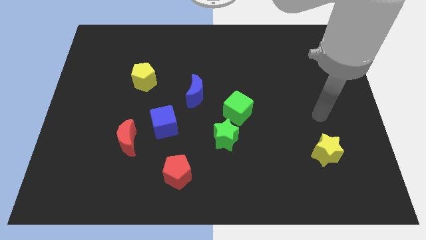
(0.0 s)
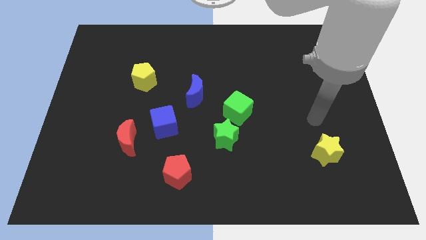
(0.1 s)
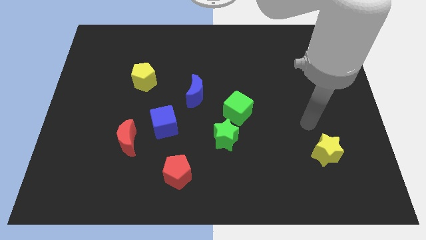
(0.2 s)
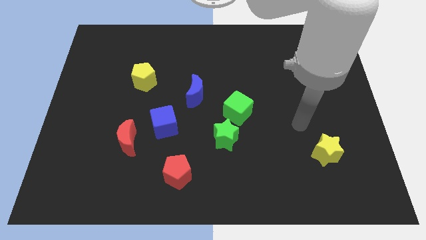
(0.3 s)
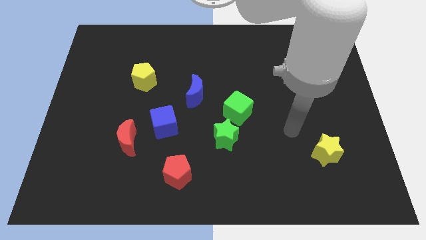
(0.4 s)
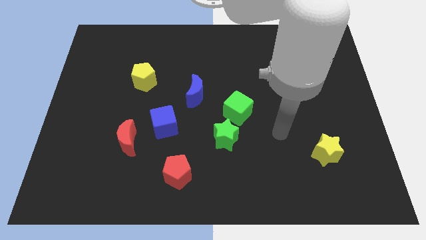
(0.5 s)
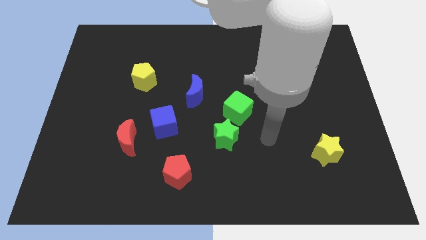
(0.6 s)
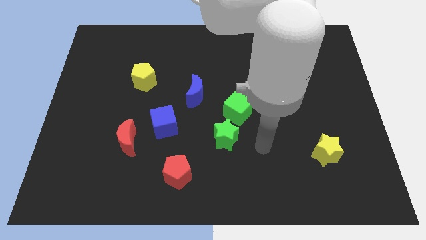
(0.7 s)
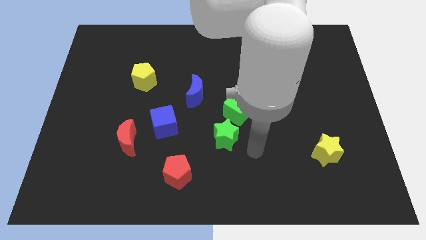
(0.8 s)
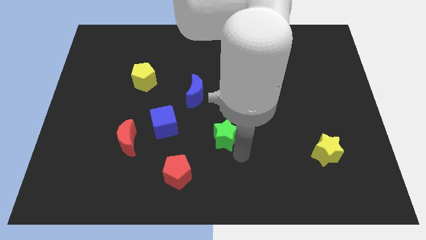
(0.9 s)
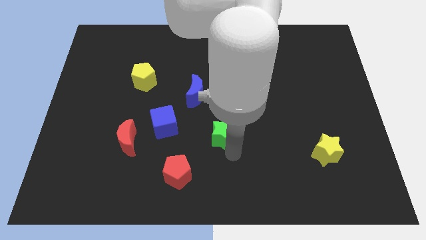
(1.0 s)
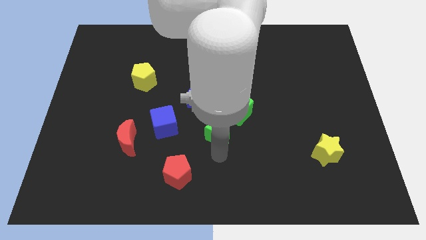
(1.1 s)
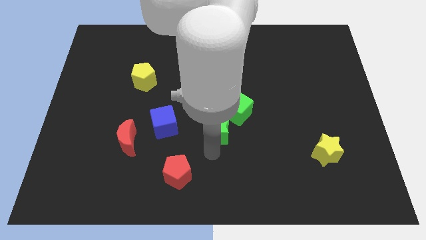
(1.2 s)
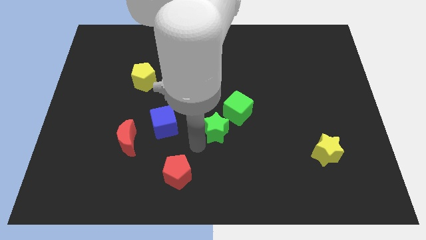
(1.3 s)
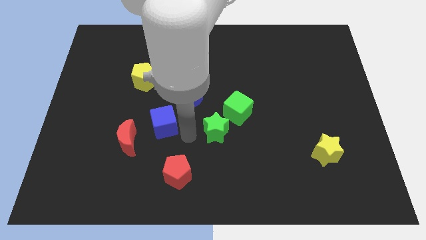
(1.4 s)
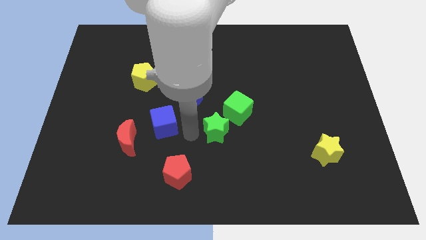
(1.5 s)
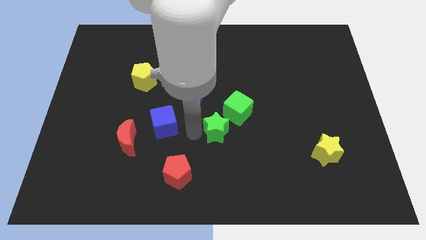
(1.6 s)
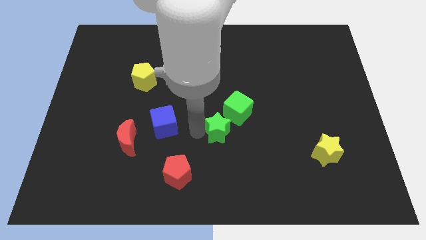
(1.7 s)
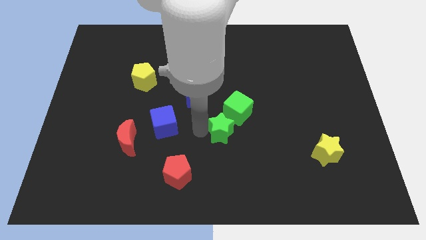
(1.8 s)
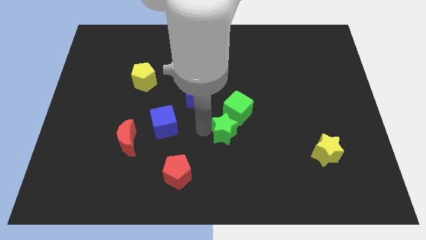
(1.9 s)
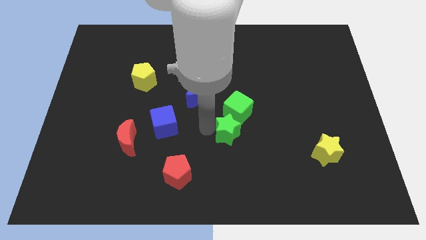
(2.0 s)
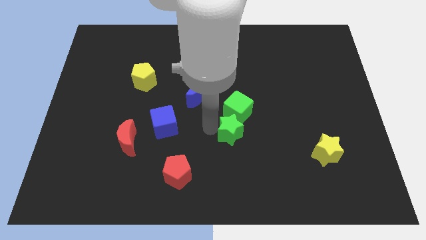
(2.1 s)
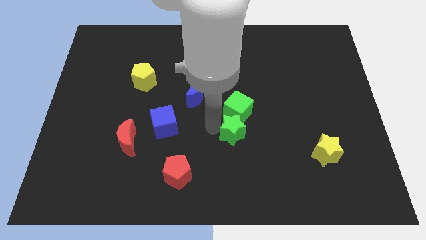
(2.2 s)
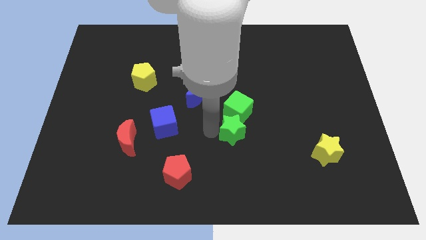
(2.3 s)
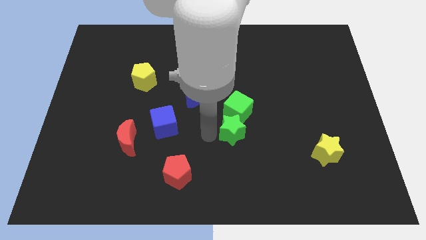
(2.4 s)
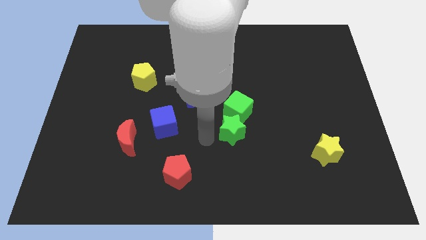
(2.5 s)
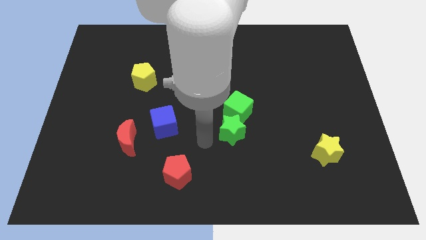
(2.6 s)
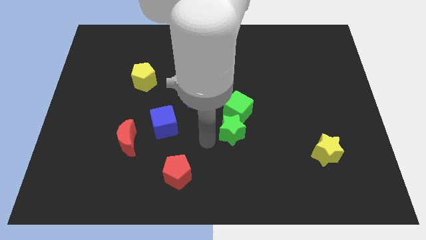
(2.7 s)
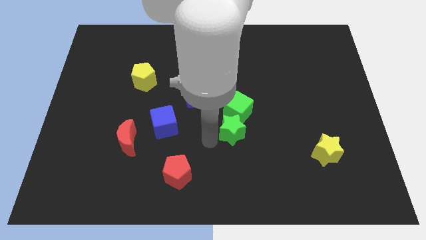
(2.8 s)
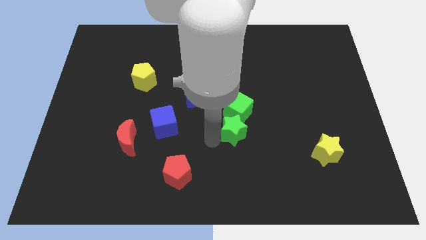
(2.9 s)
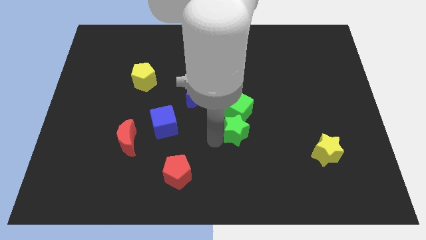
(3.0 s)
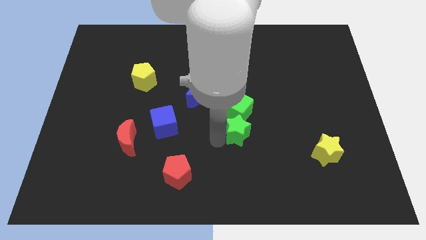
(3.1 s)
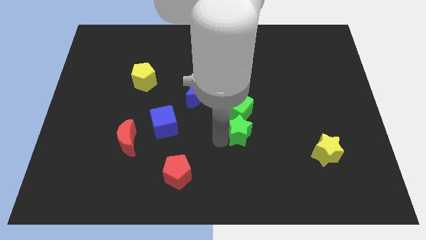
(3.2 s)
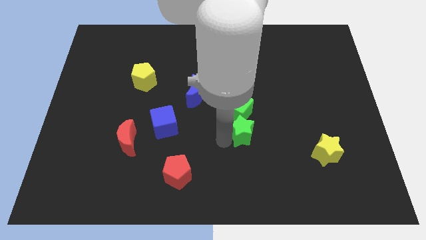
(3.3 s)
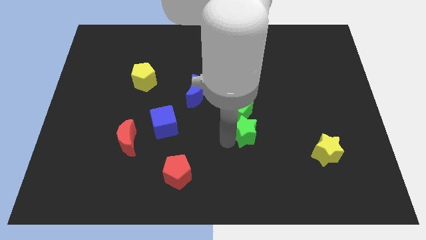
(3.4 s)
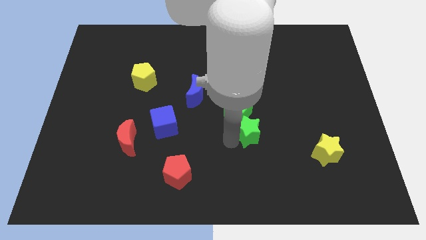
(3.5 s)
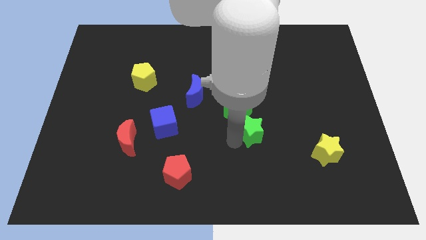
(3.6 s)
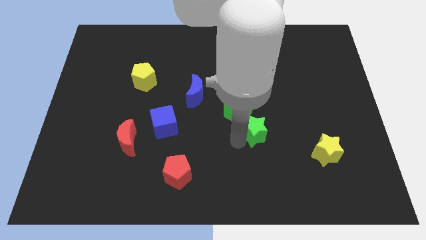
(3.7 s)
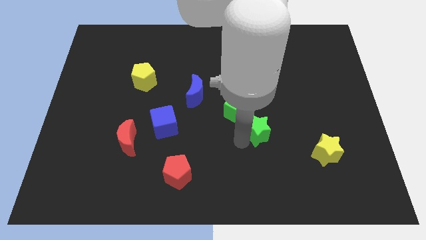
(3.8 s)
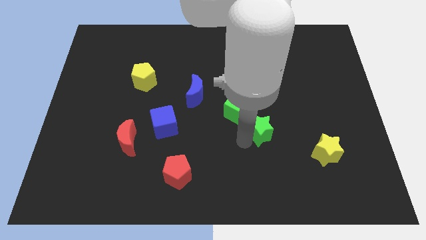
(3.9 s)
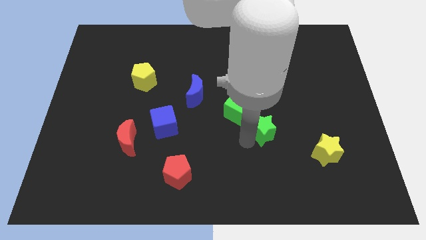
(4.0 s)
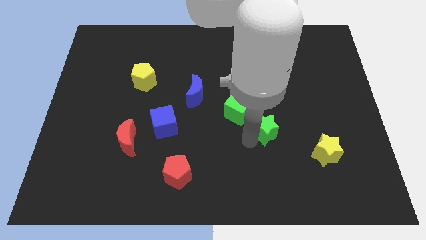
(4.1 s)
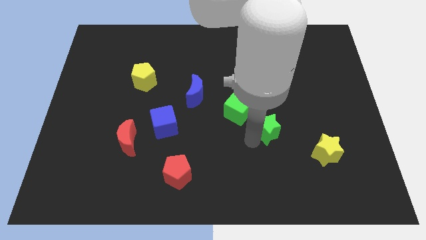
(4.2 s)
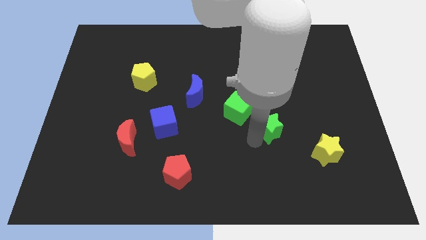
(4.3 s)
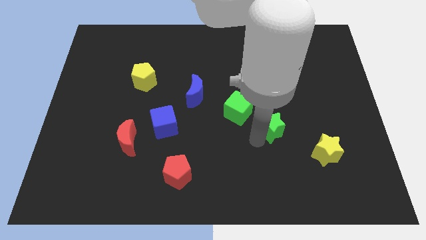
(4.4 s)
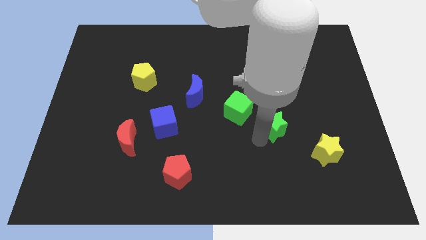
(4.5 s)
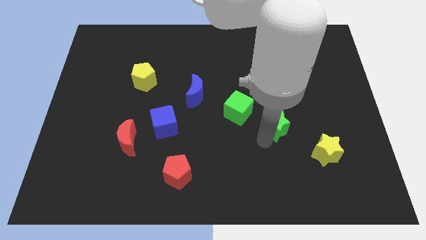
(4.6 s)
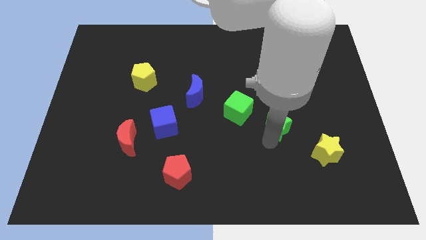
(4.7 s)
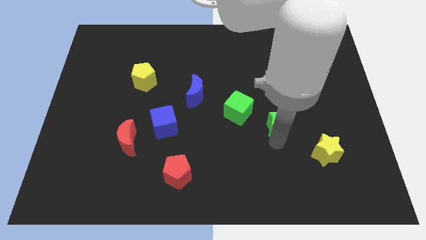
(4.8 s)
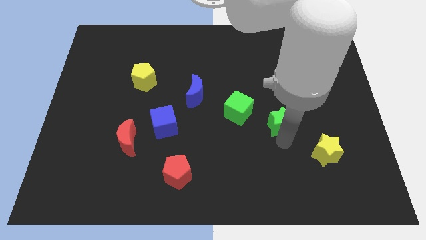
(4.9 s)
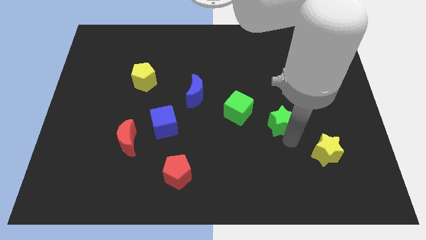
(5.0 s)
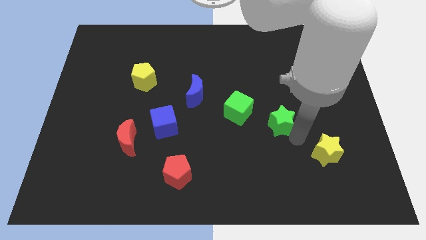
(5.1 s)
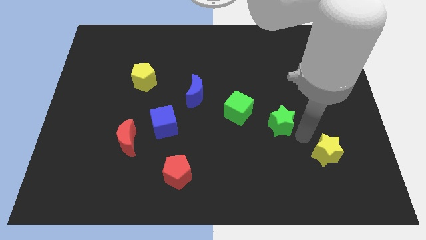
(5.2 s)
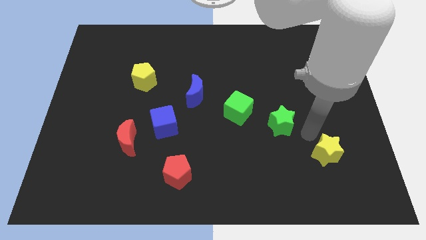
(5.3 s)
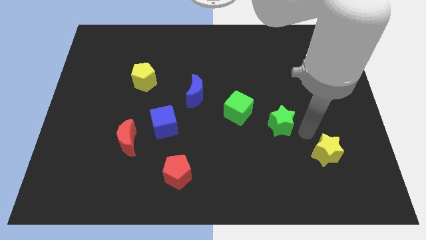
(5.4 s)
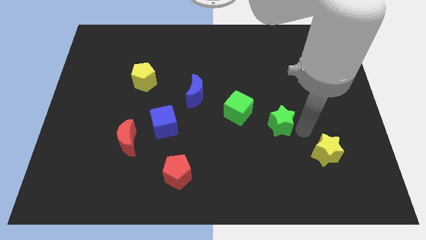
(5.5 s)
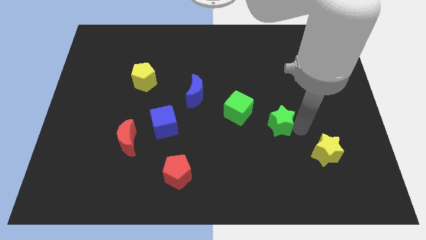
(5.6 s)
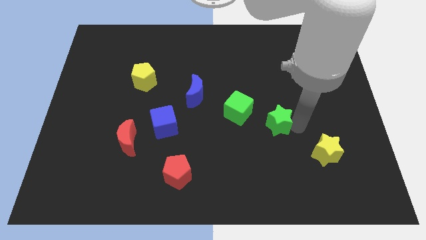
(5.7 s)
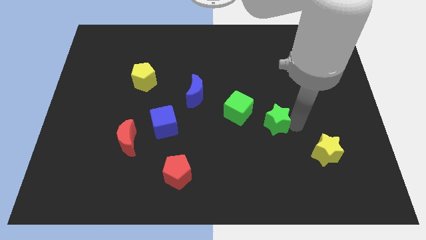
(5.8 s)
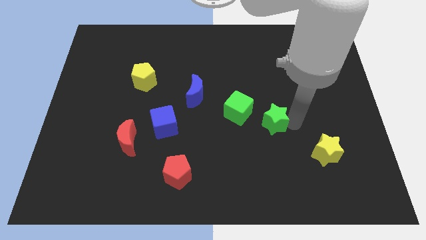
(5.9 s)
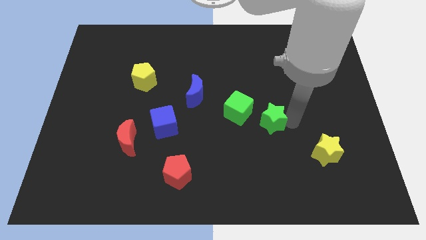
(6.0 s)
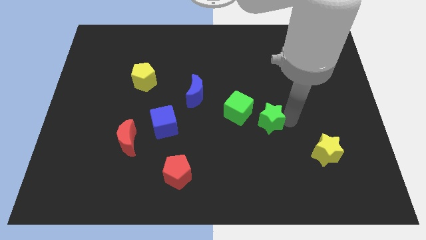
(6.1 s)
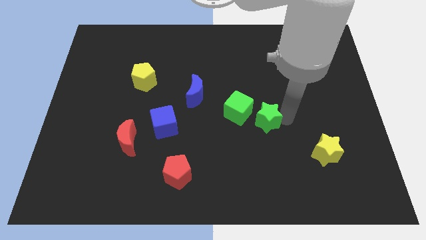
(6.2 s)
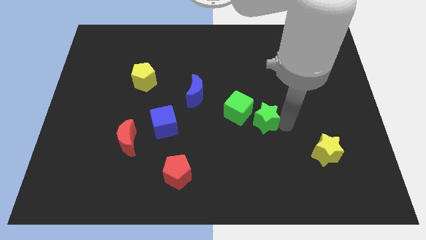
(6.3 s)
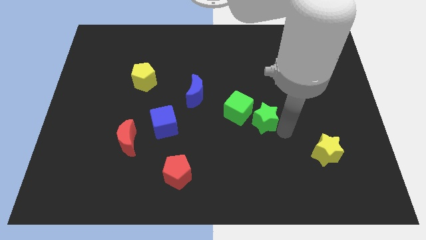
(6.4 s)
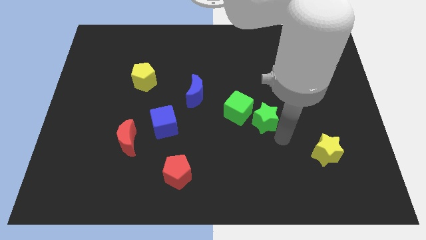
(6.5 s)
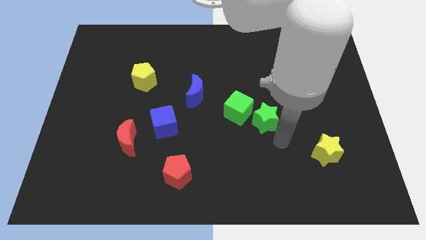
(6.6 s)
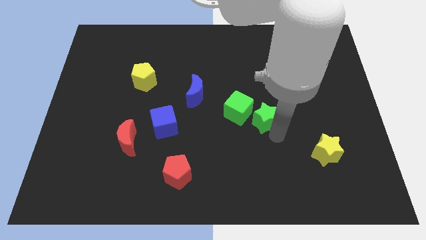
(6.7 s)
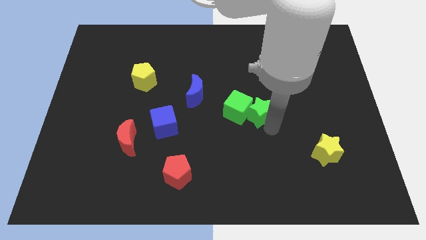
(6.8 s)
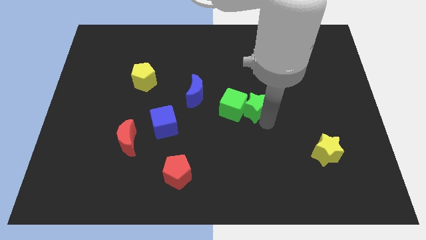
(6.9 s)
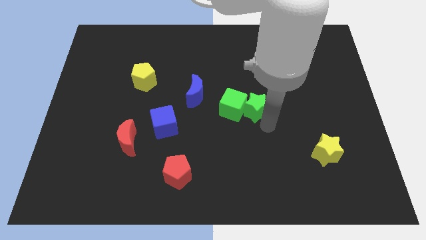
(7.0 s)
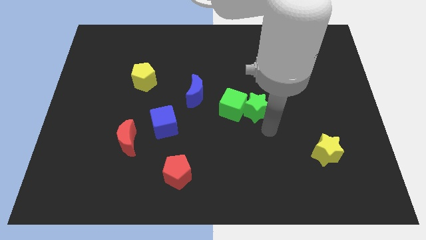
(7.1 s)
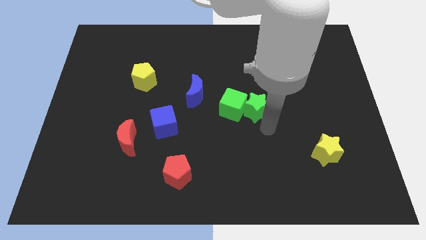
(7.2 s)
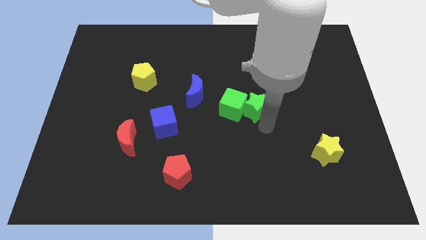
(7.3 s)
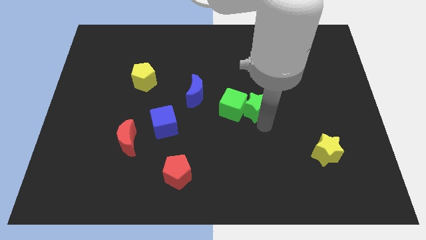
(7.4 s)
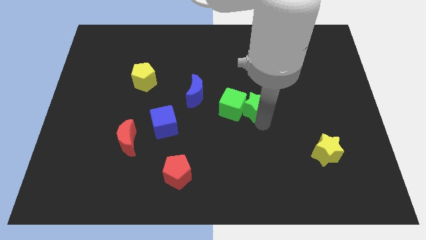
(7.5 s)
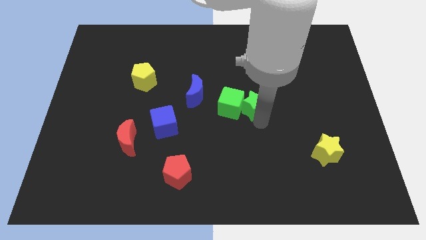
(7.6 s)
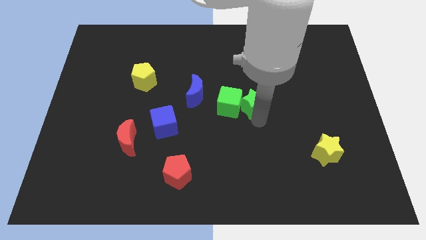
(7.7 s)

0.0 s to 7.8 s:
push the green star somewhat up

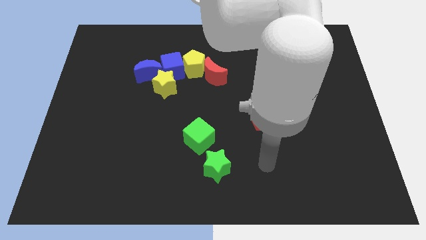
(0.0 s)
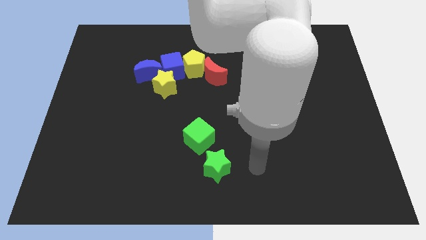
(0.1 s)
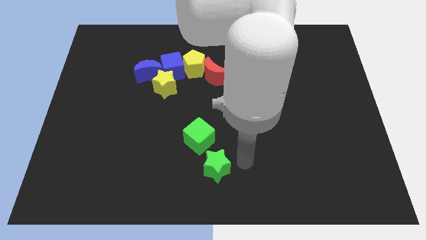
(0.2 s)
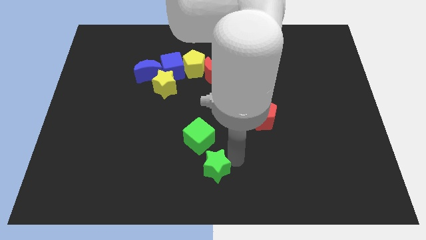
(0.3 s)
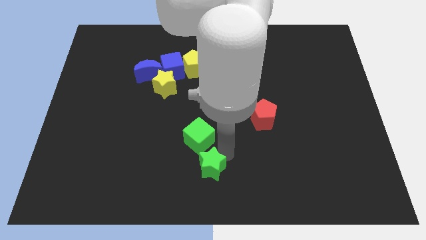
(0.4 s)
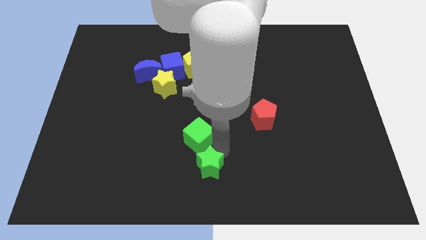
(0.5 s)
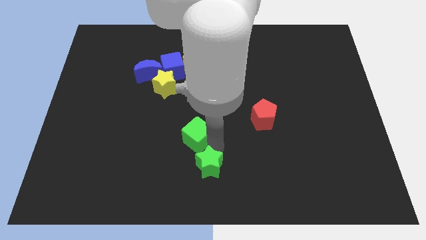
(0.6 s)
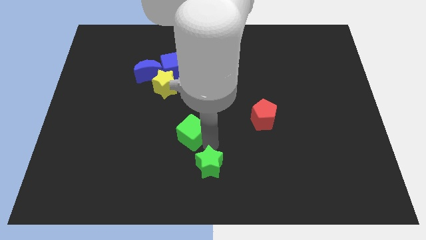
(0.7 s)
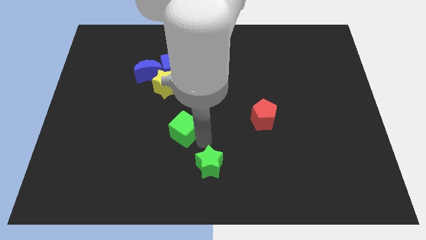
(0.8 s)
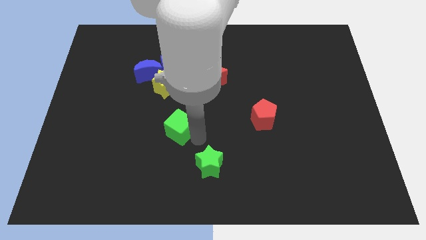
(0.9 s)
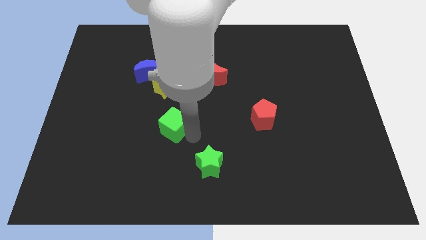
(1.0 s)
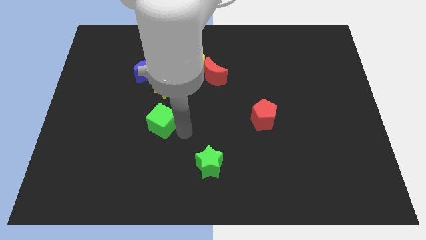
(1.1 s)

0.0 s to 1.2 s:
move the green cube up and to the left a little bit
